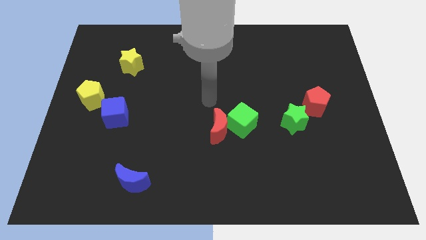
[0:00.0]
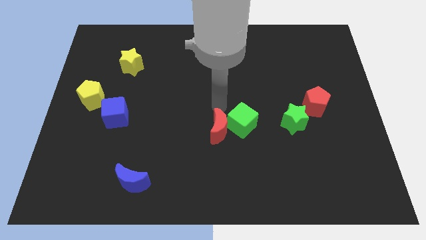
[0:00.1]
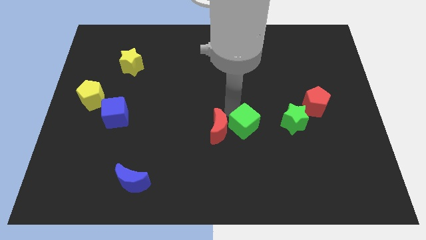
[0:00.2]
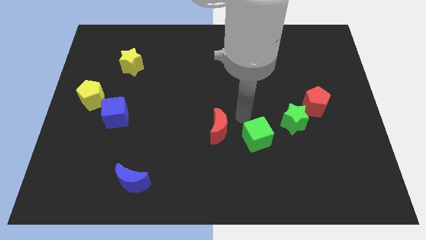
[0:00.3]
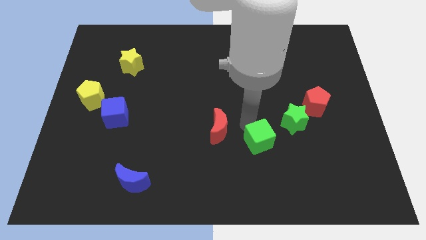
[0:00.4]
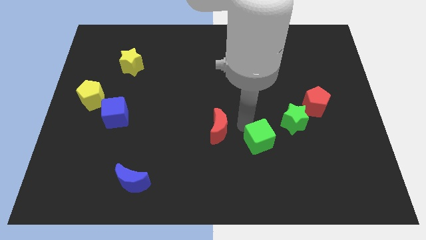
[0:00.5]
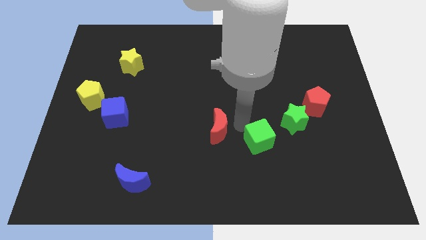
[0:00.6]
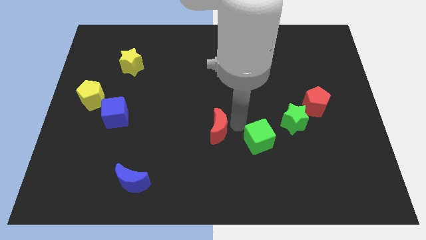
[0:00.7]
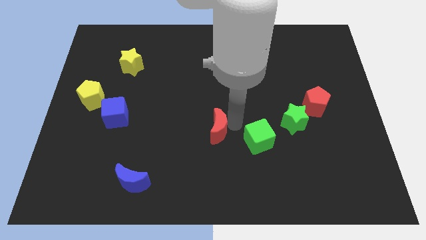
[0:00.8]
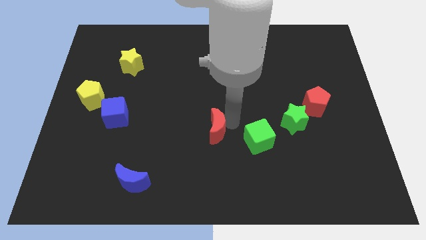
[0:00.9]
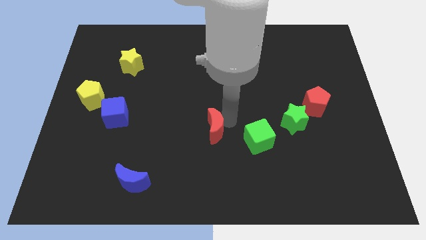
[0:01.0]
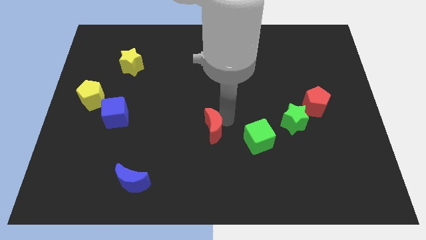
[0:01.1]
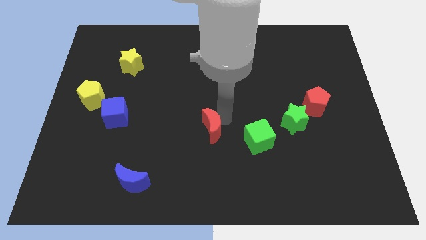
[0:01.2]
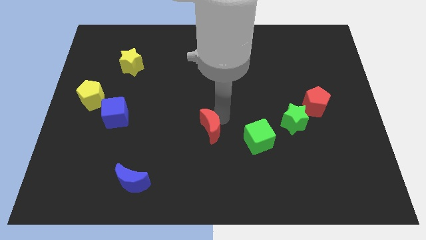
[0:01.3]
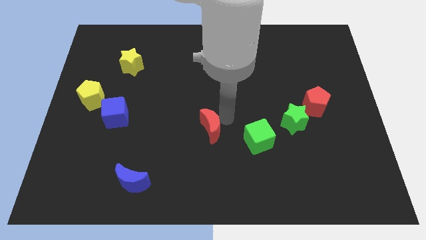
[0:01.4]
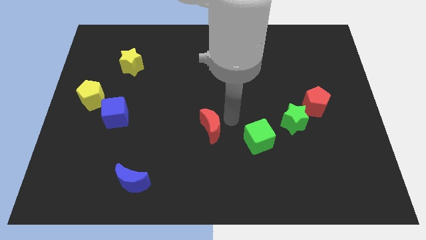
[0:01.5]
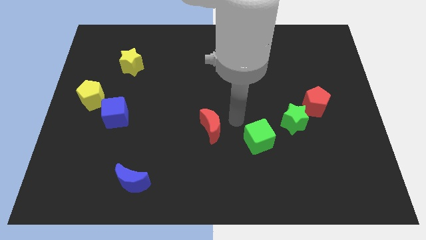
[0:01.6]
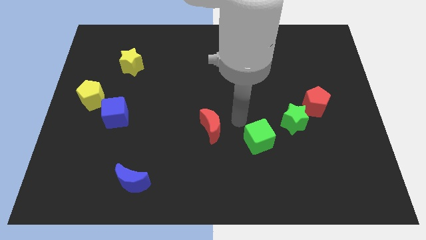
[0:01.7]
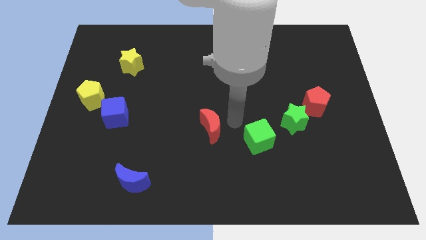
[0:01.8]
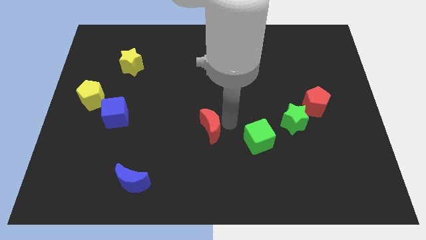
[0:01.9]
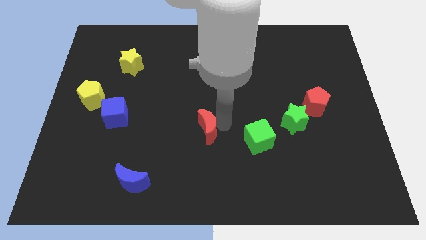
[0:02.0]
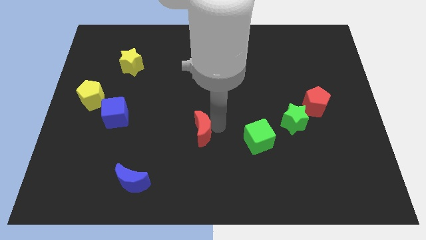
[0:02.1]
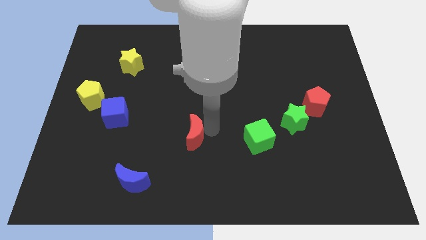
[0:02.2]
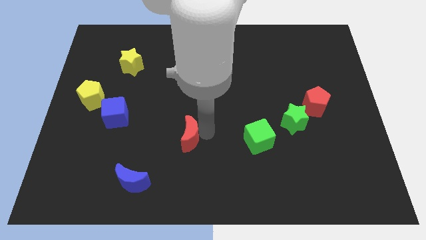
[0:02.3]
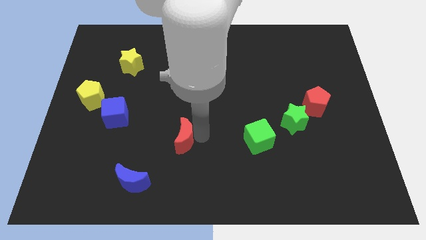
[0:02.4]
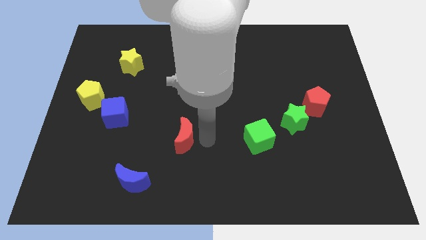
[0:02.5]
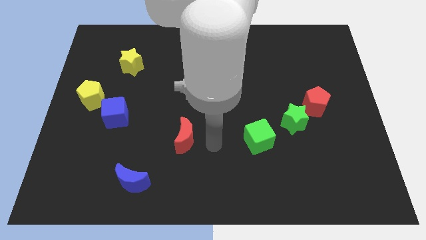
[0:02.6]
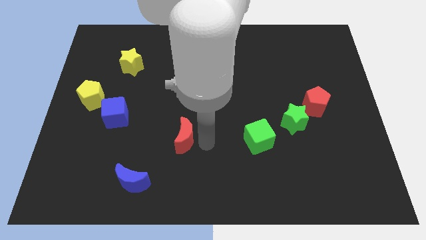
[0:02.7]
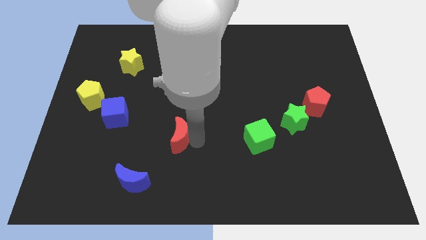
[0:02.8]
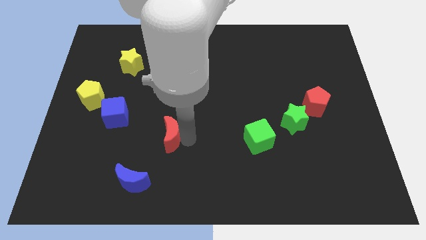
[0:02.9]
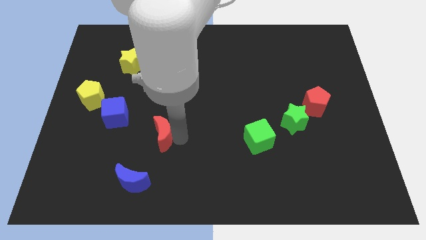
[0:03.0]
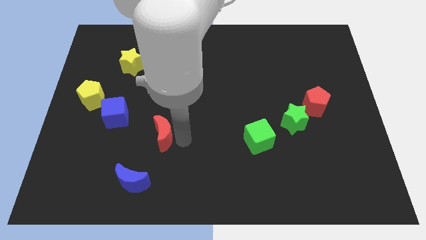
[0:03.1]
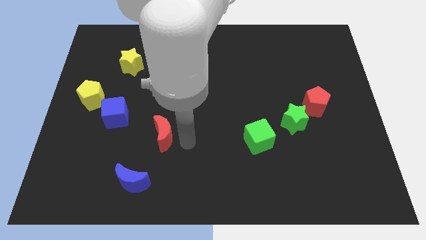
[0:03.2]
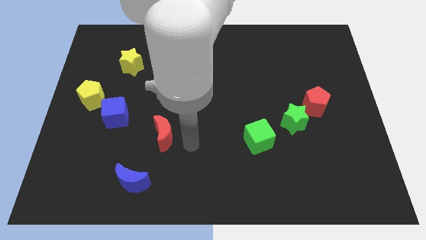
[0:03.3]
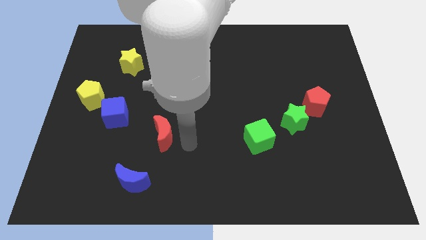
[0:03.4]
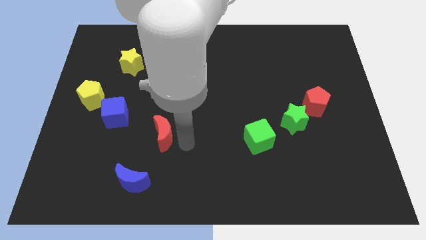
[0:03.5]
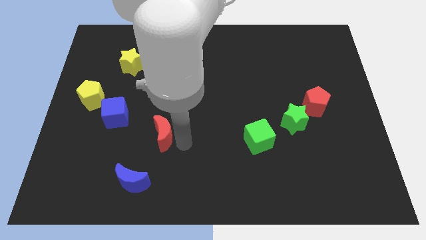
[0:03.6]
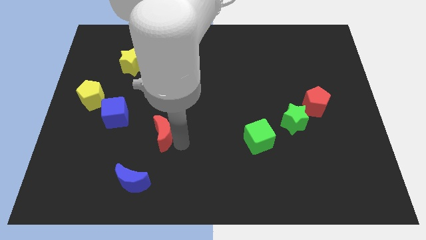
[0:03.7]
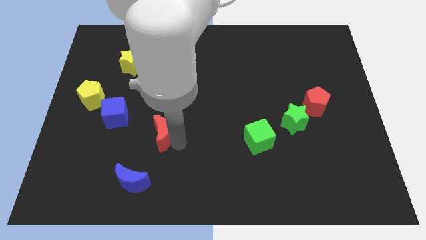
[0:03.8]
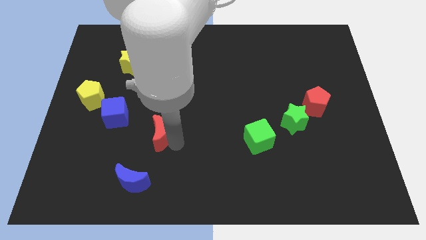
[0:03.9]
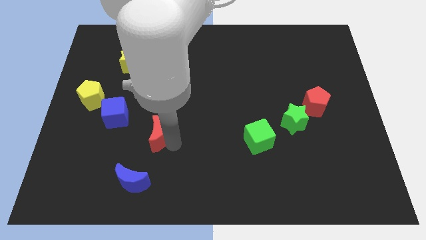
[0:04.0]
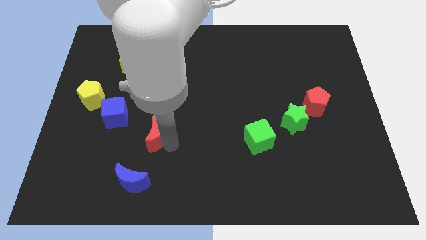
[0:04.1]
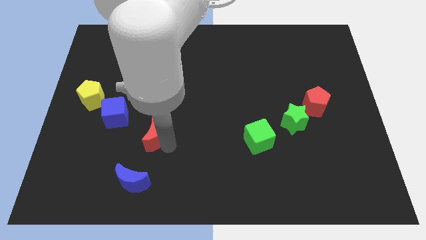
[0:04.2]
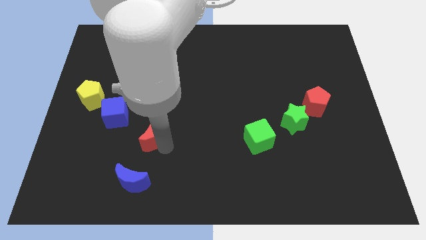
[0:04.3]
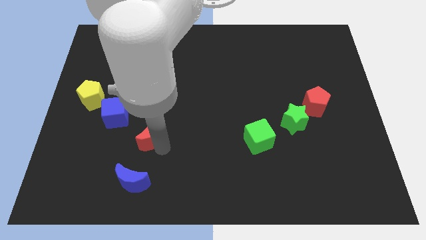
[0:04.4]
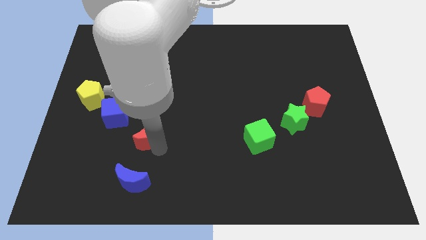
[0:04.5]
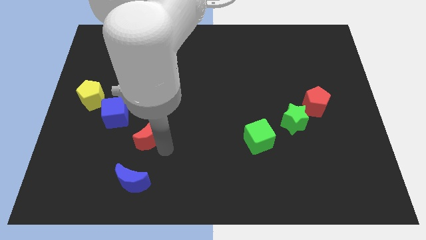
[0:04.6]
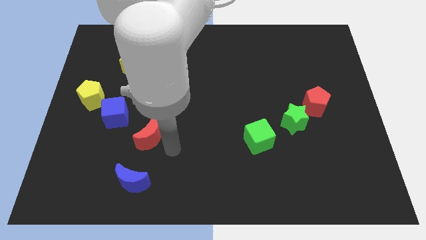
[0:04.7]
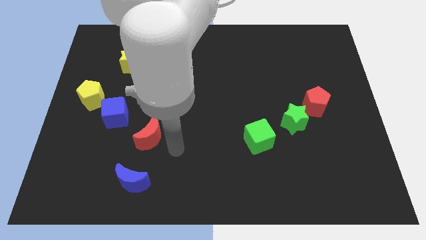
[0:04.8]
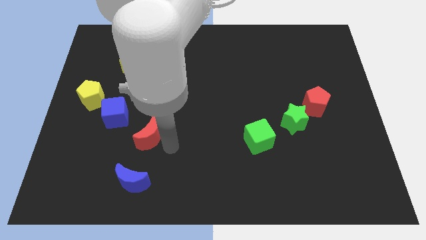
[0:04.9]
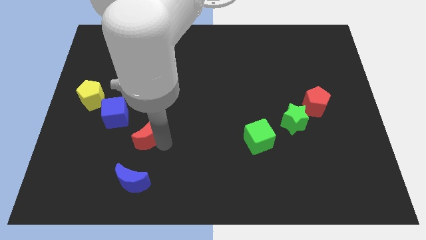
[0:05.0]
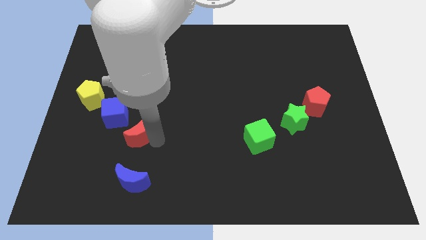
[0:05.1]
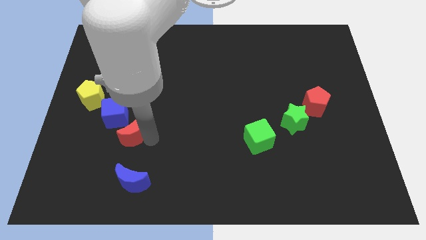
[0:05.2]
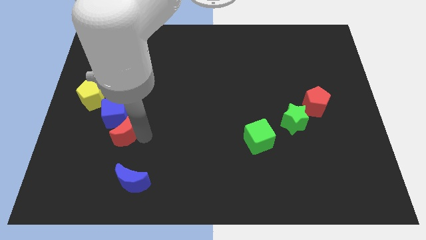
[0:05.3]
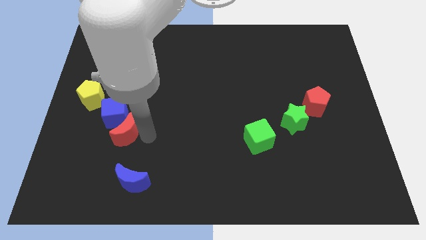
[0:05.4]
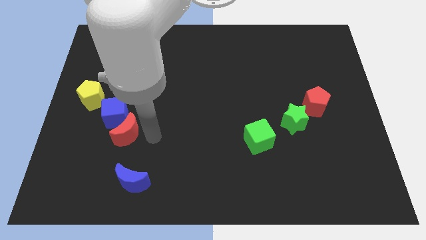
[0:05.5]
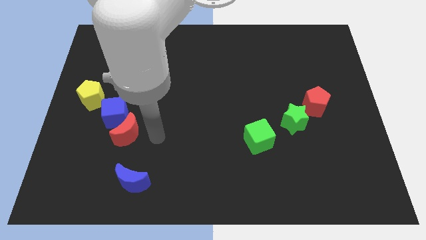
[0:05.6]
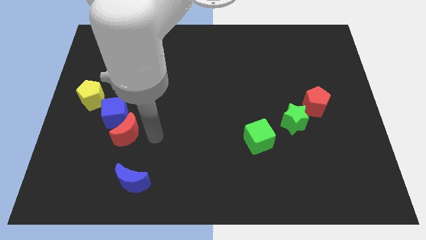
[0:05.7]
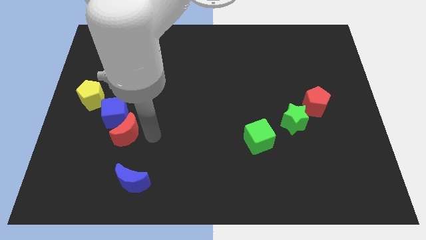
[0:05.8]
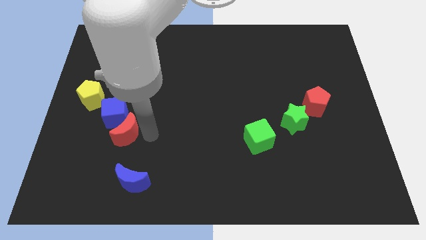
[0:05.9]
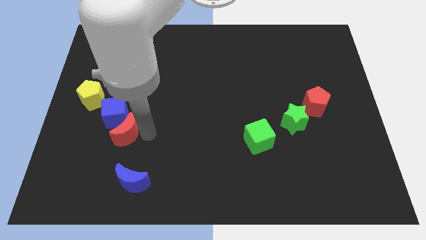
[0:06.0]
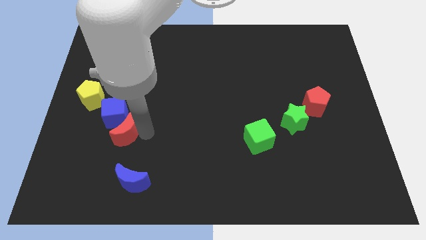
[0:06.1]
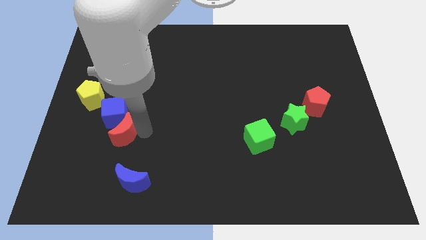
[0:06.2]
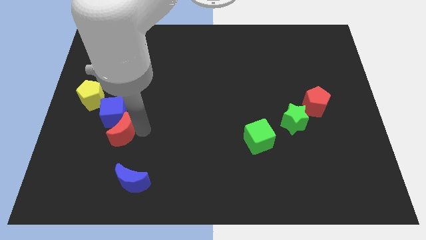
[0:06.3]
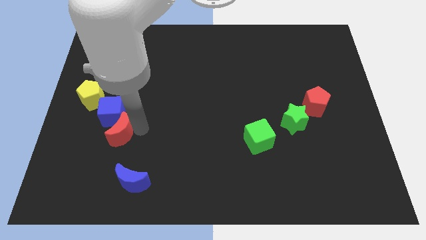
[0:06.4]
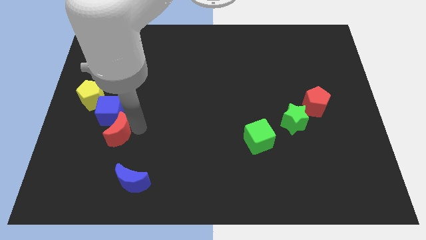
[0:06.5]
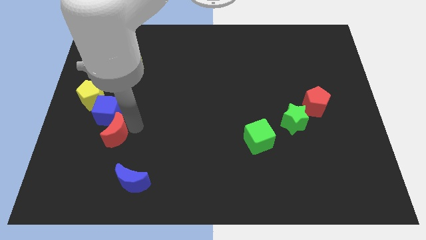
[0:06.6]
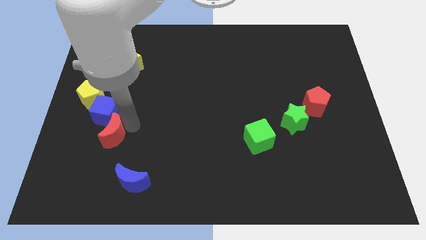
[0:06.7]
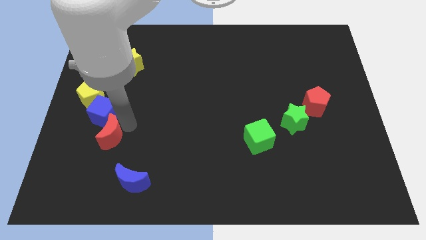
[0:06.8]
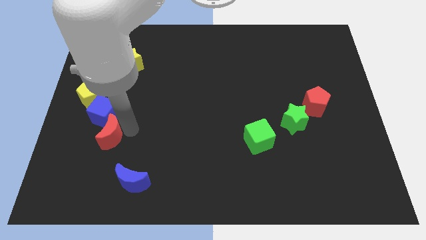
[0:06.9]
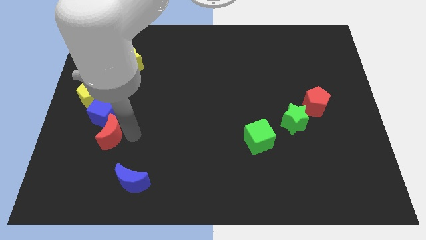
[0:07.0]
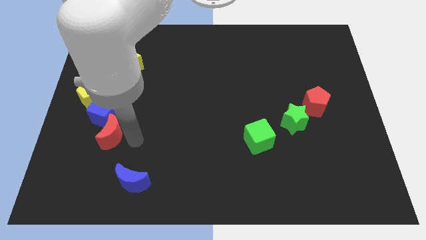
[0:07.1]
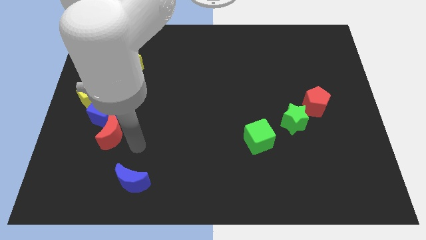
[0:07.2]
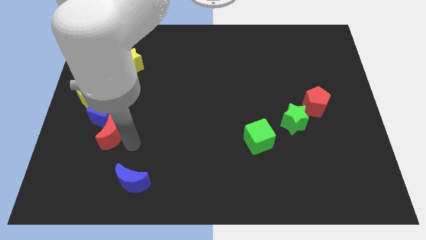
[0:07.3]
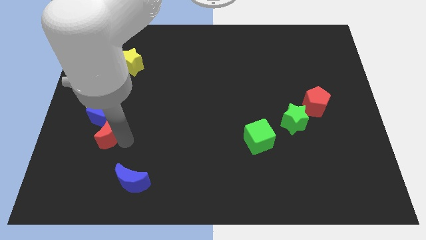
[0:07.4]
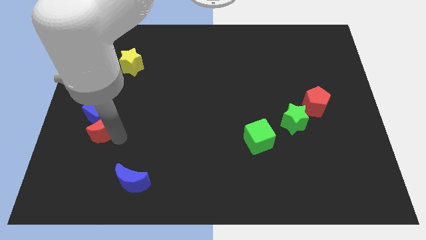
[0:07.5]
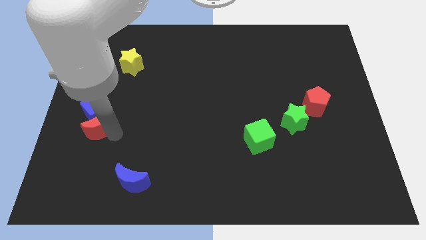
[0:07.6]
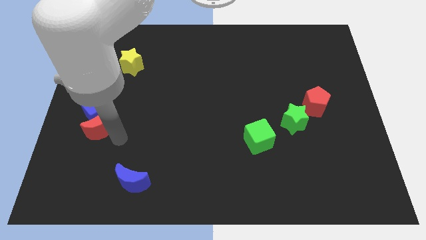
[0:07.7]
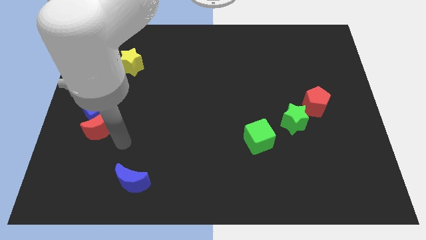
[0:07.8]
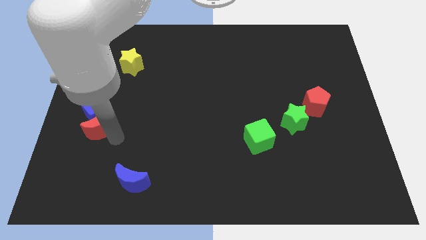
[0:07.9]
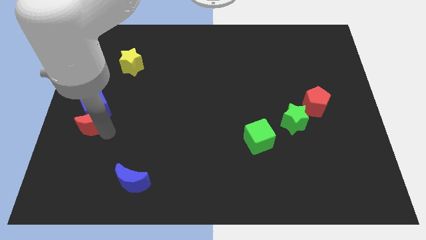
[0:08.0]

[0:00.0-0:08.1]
move the red moon to the center left
